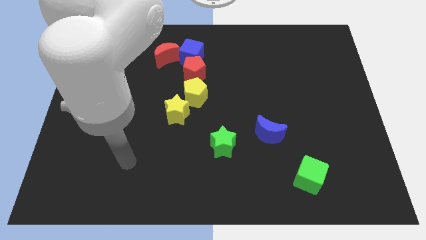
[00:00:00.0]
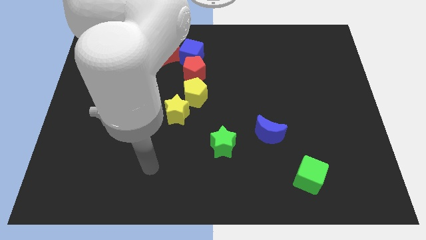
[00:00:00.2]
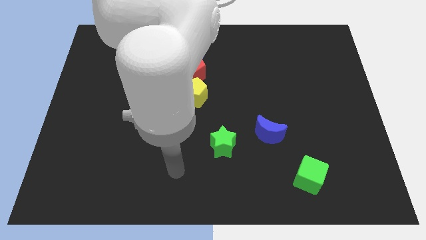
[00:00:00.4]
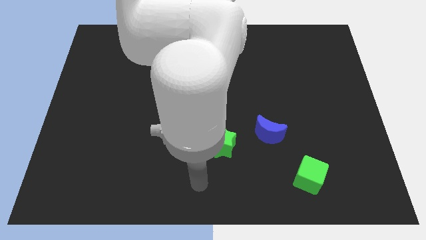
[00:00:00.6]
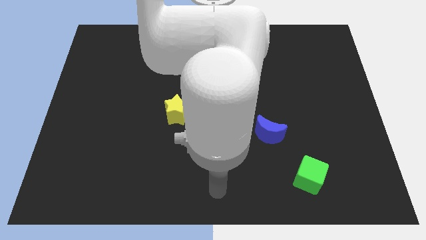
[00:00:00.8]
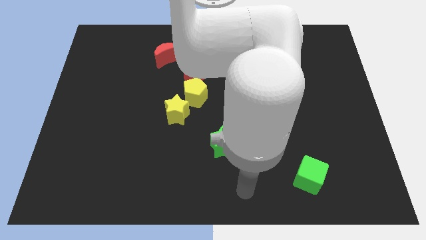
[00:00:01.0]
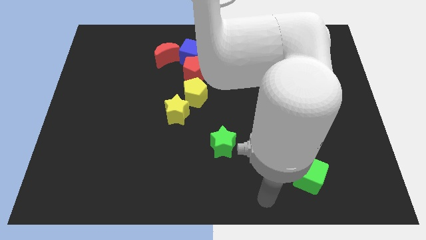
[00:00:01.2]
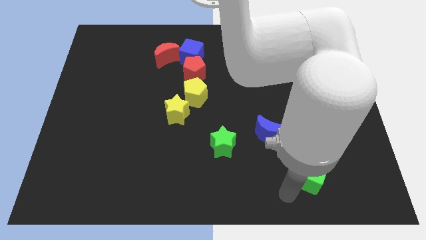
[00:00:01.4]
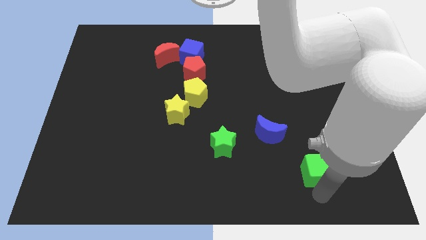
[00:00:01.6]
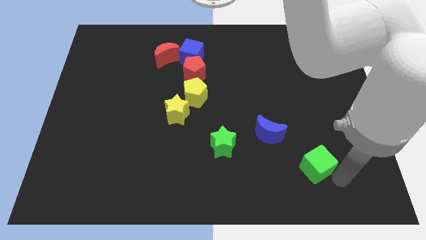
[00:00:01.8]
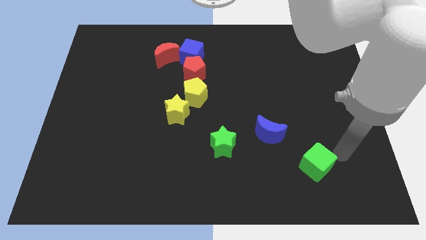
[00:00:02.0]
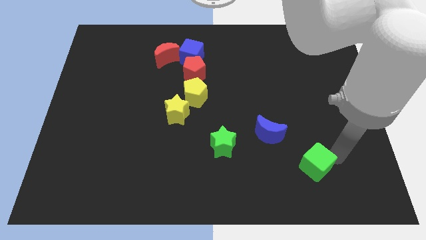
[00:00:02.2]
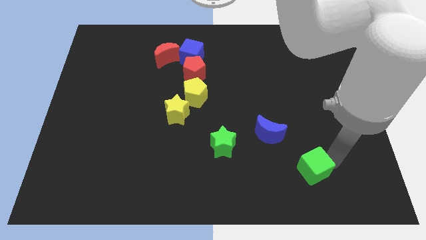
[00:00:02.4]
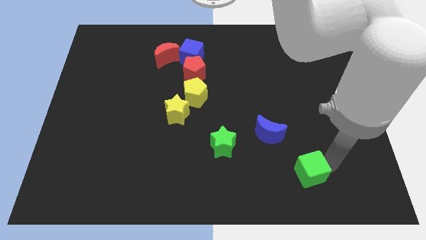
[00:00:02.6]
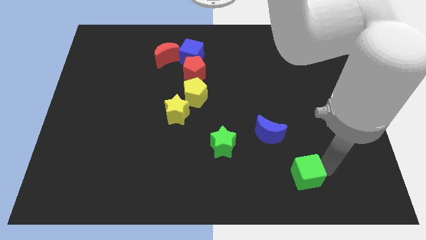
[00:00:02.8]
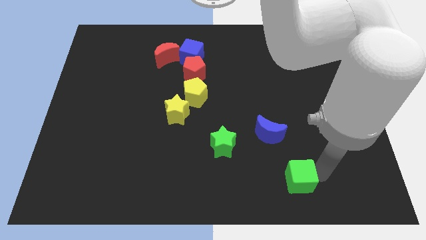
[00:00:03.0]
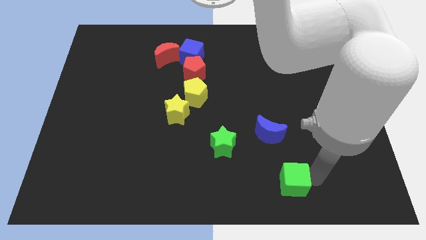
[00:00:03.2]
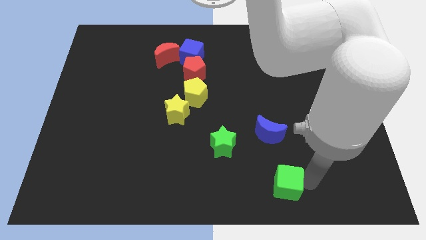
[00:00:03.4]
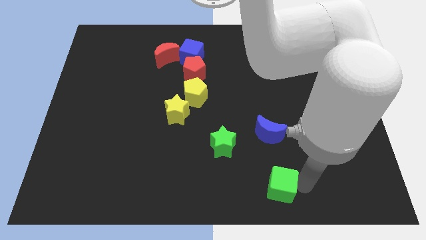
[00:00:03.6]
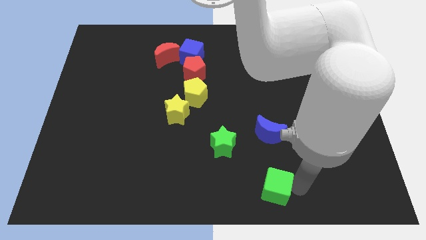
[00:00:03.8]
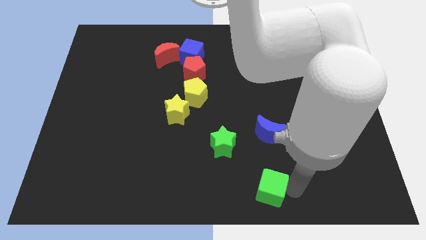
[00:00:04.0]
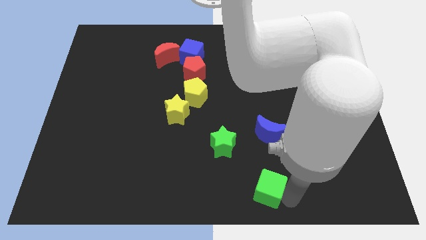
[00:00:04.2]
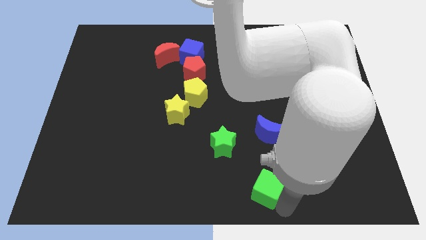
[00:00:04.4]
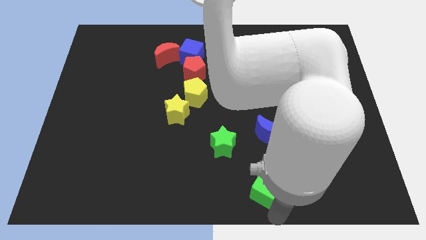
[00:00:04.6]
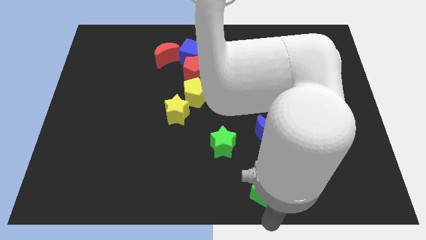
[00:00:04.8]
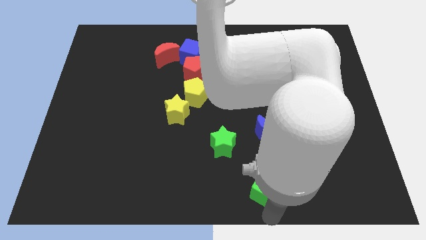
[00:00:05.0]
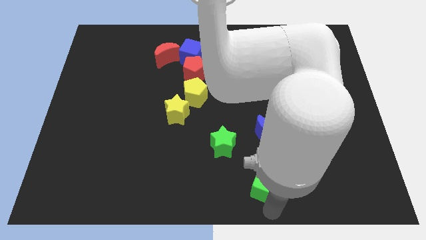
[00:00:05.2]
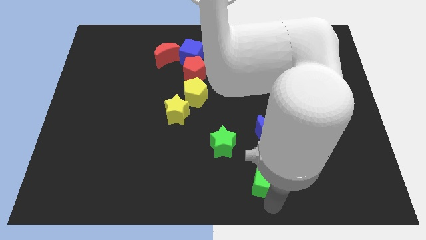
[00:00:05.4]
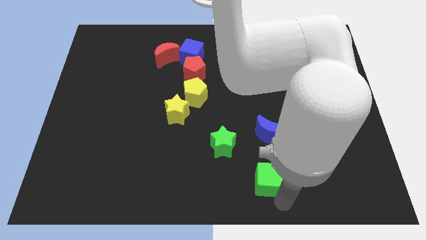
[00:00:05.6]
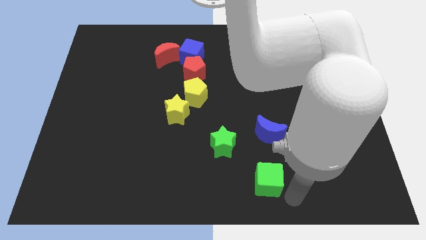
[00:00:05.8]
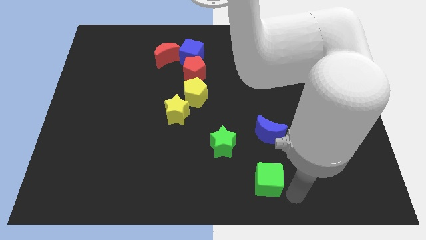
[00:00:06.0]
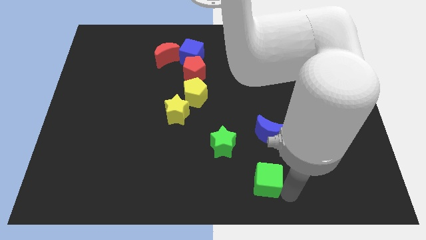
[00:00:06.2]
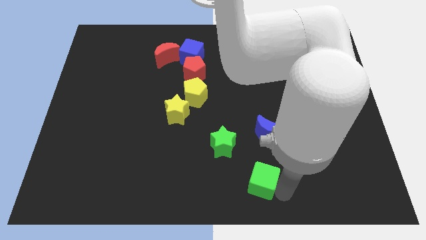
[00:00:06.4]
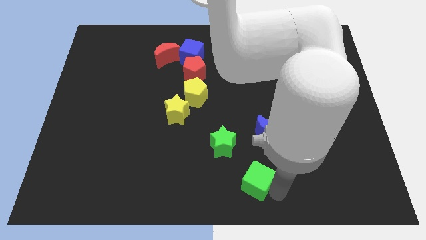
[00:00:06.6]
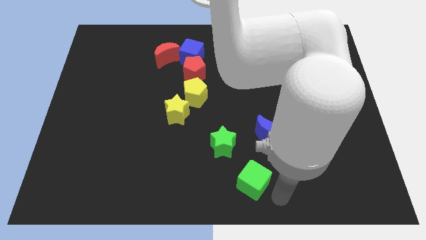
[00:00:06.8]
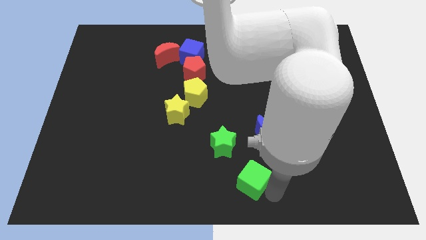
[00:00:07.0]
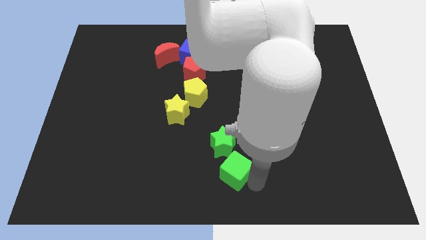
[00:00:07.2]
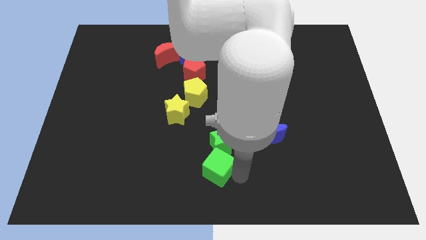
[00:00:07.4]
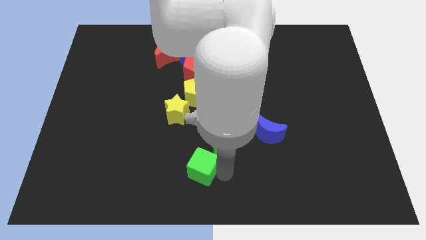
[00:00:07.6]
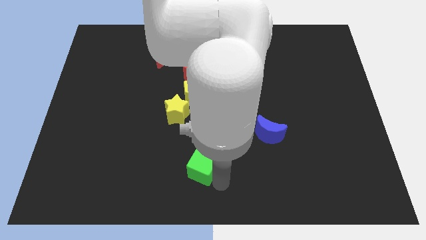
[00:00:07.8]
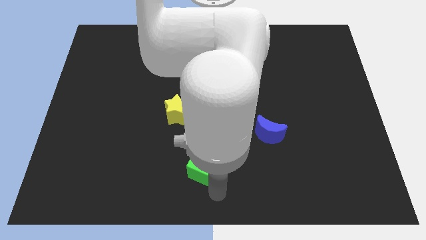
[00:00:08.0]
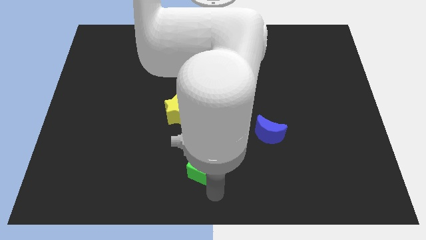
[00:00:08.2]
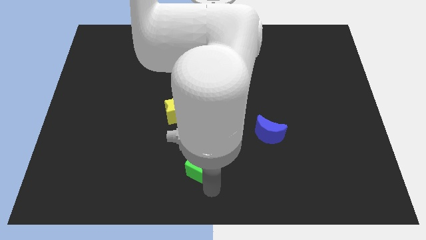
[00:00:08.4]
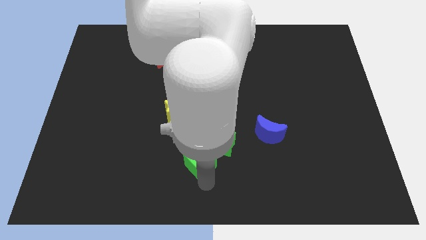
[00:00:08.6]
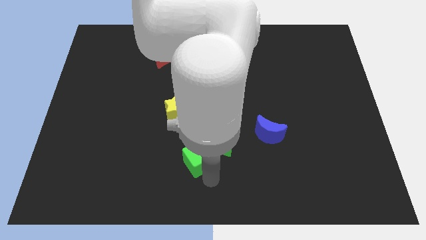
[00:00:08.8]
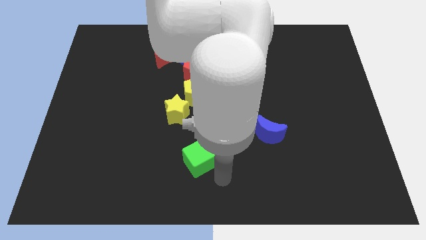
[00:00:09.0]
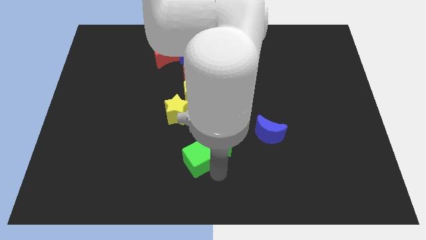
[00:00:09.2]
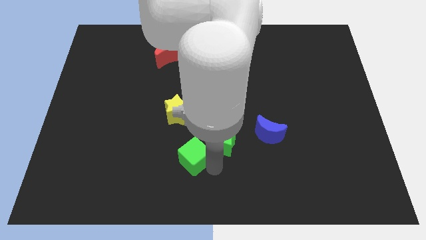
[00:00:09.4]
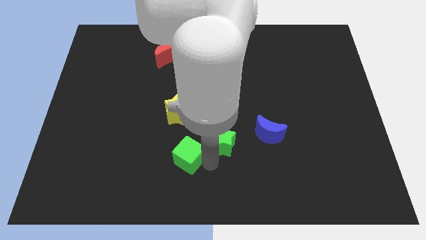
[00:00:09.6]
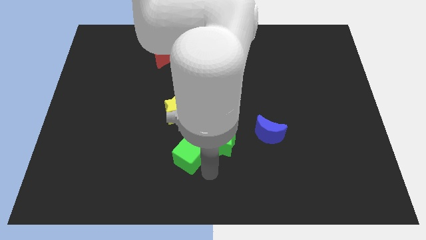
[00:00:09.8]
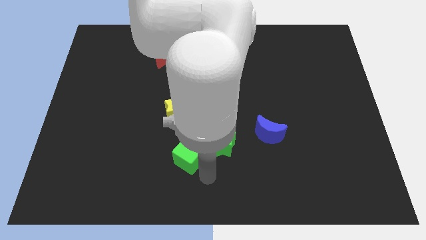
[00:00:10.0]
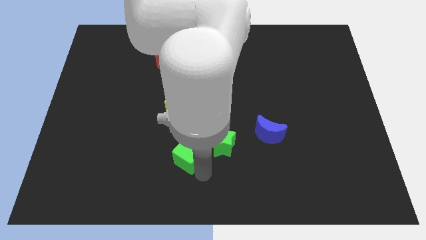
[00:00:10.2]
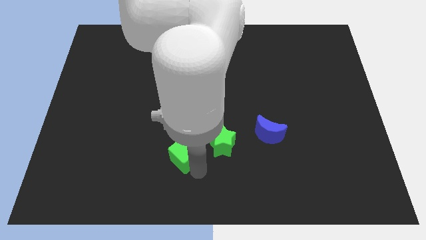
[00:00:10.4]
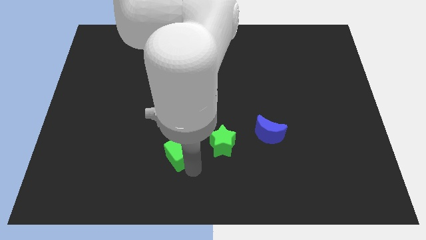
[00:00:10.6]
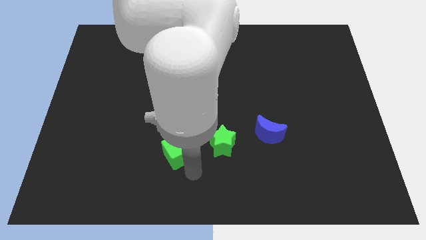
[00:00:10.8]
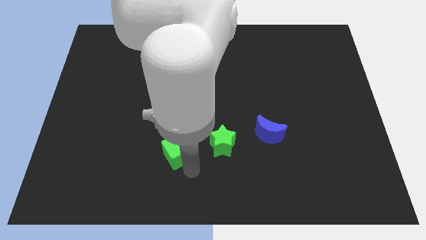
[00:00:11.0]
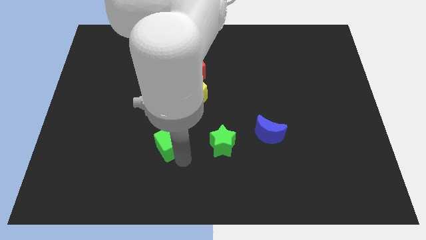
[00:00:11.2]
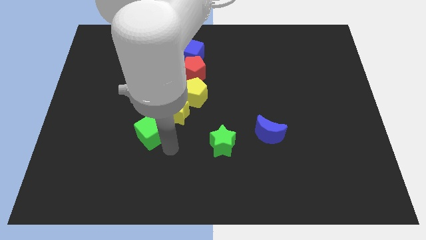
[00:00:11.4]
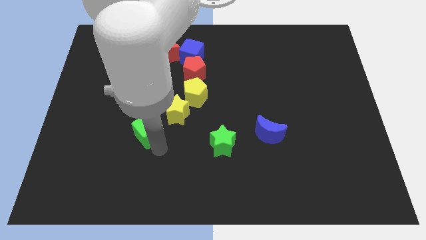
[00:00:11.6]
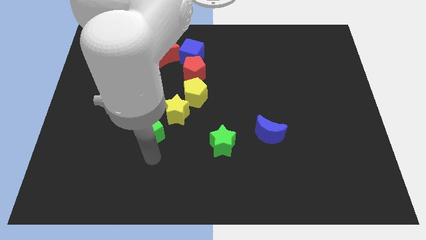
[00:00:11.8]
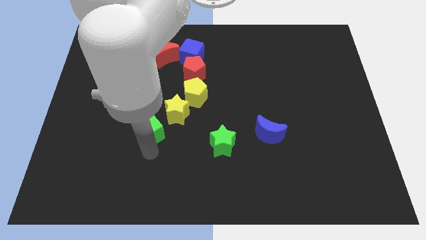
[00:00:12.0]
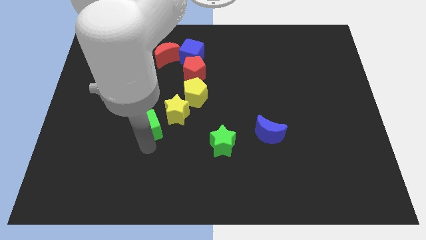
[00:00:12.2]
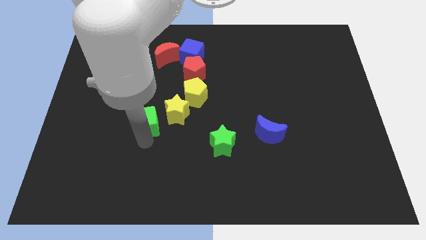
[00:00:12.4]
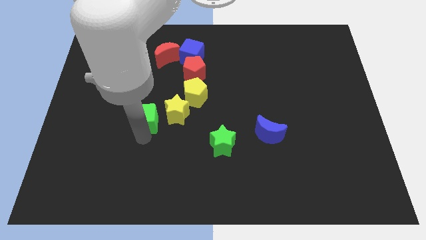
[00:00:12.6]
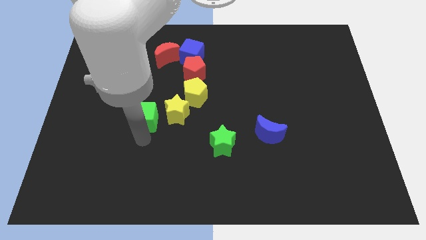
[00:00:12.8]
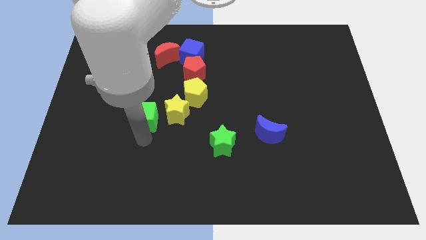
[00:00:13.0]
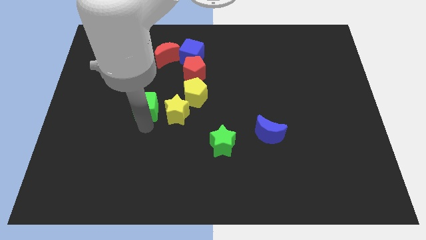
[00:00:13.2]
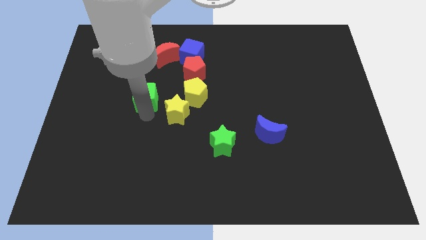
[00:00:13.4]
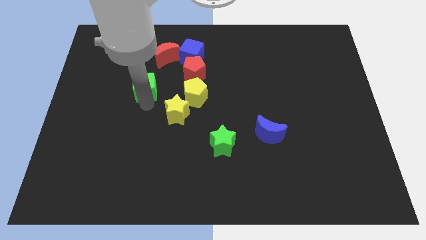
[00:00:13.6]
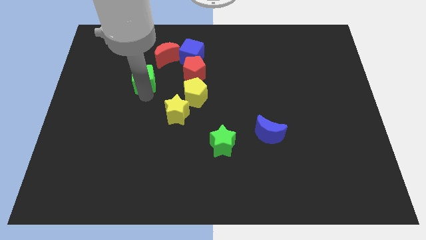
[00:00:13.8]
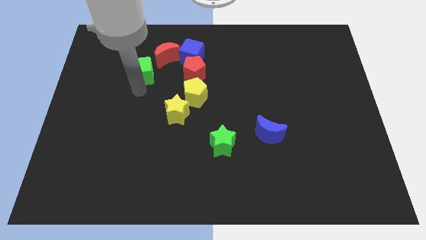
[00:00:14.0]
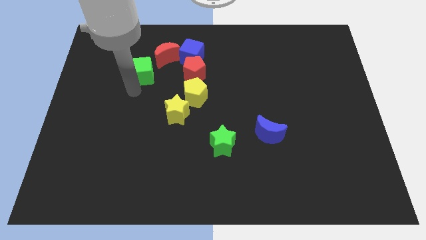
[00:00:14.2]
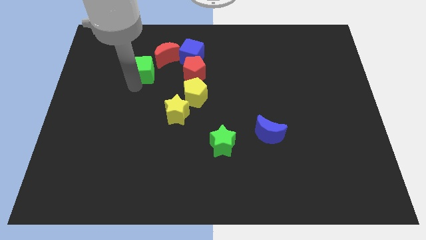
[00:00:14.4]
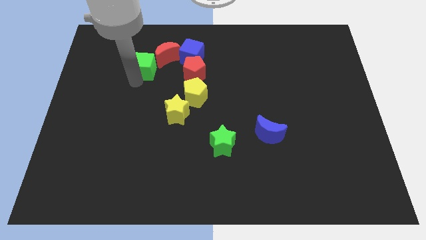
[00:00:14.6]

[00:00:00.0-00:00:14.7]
put the green cube to the left of the blue cube
